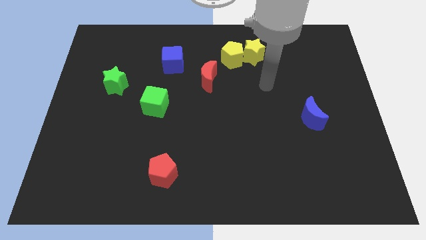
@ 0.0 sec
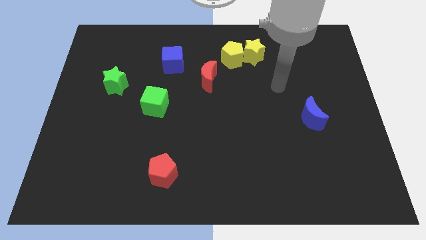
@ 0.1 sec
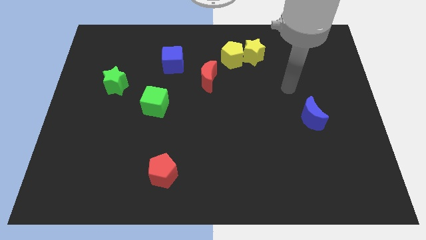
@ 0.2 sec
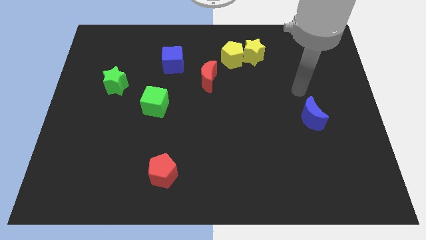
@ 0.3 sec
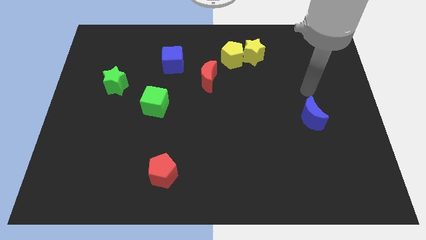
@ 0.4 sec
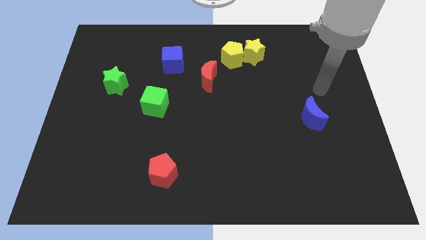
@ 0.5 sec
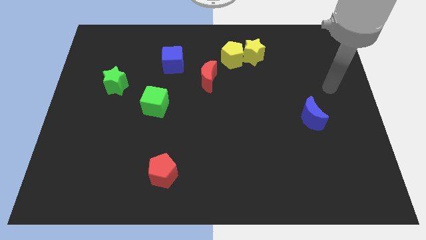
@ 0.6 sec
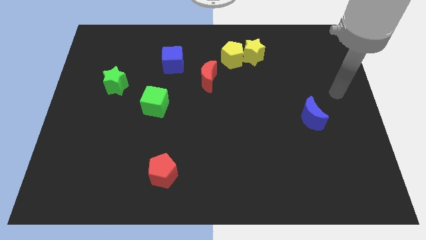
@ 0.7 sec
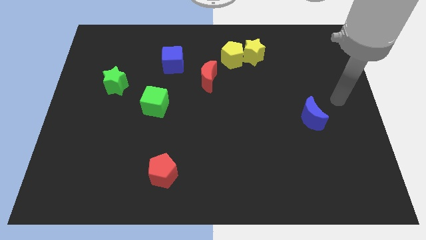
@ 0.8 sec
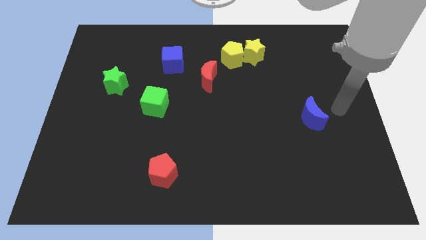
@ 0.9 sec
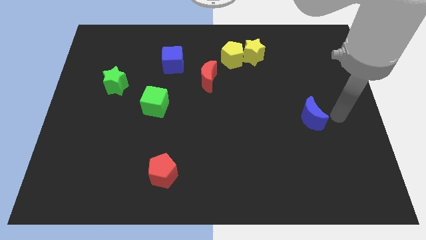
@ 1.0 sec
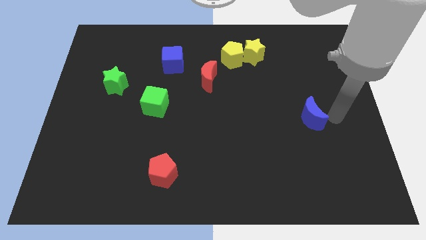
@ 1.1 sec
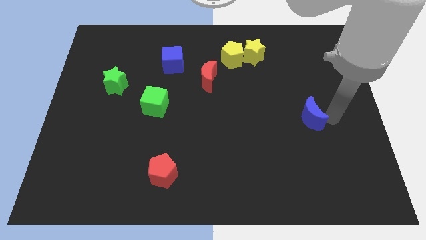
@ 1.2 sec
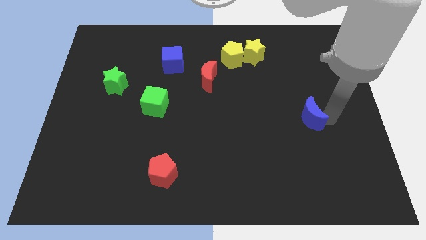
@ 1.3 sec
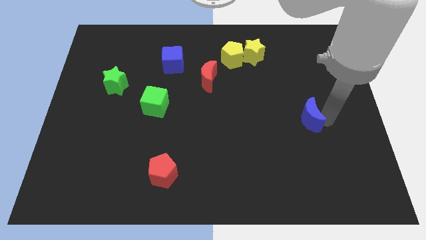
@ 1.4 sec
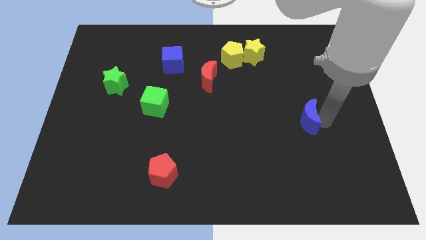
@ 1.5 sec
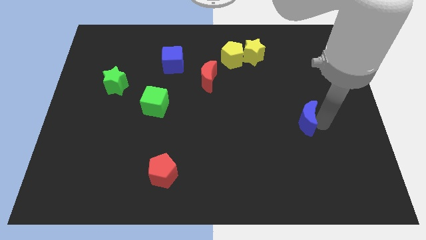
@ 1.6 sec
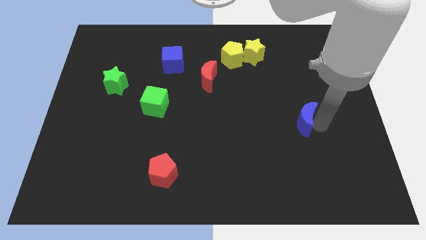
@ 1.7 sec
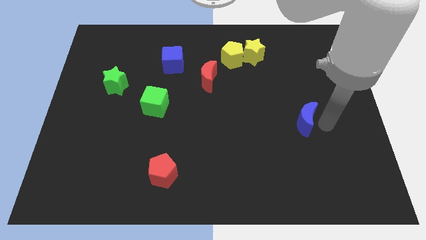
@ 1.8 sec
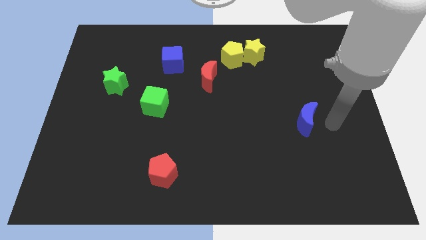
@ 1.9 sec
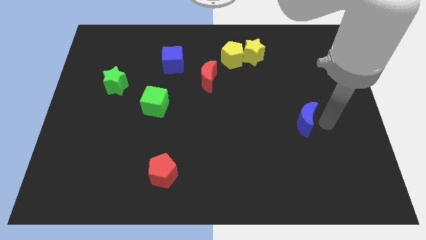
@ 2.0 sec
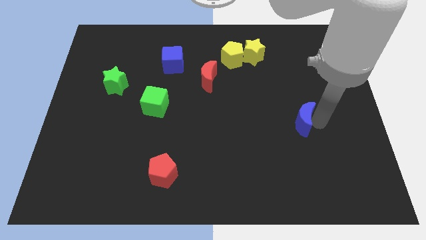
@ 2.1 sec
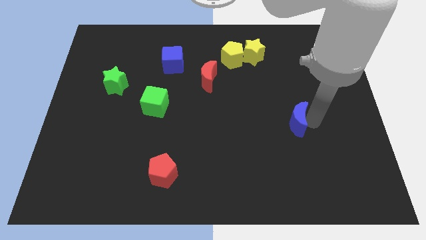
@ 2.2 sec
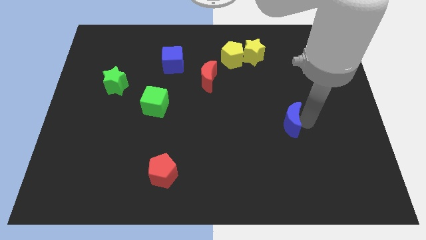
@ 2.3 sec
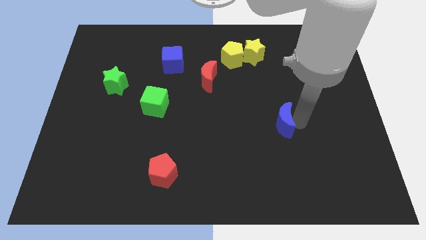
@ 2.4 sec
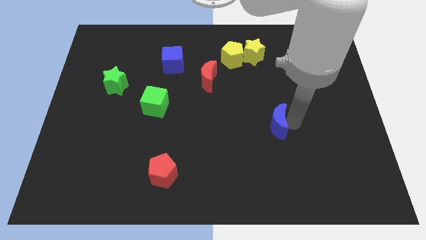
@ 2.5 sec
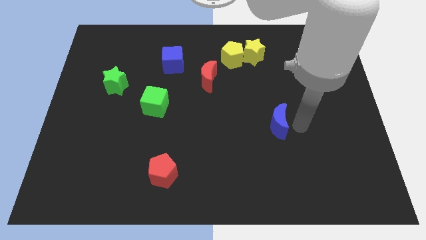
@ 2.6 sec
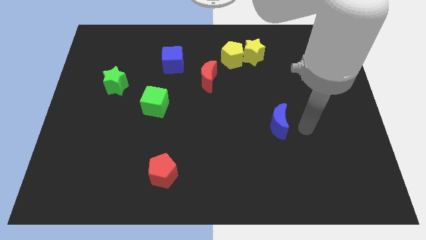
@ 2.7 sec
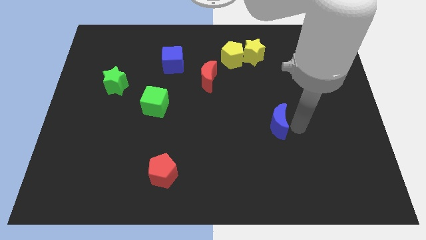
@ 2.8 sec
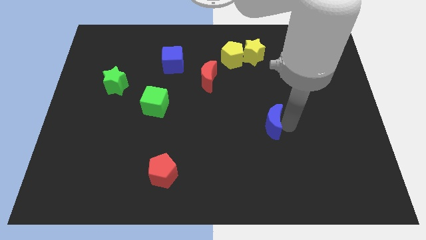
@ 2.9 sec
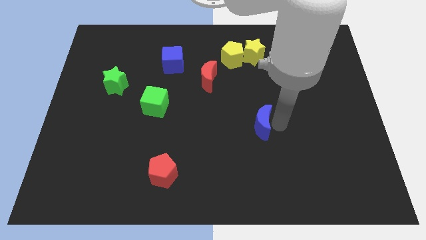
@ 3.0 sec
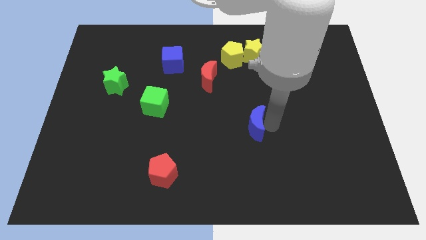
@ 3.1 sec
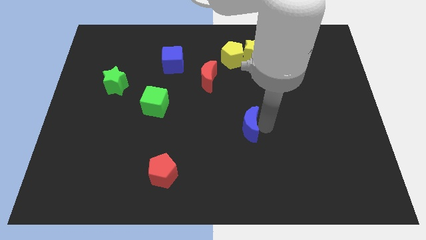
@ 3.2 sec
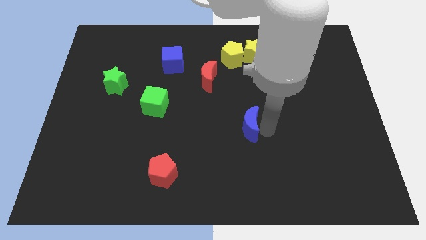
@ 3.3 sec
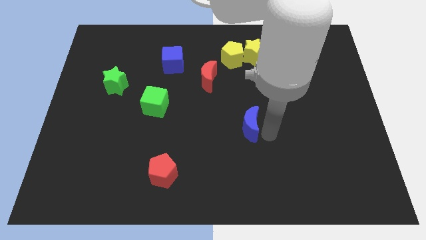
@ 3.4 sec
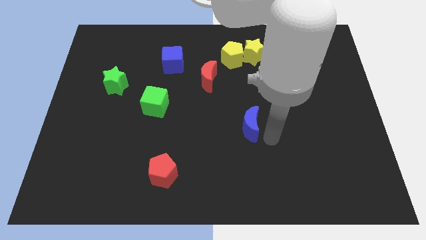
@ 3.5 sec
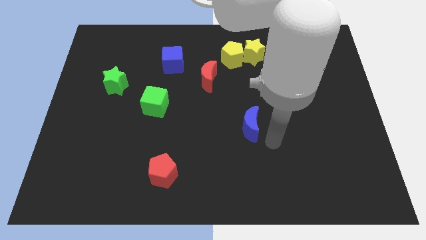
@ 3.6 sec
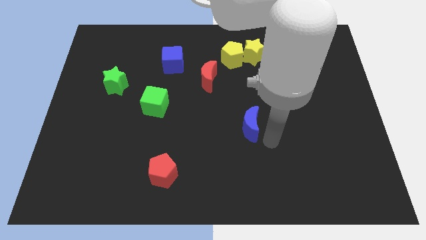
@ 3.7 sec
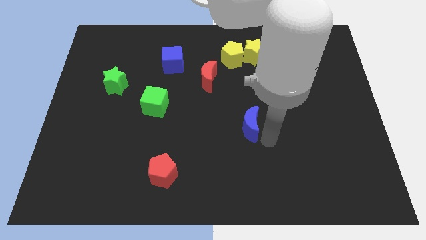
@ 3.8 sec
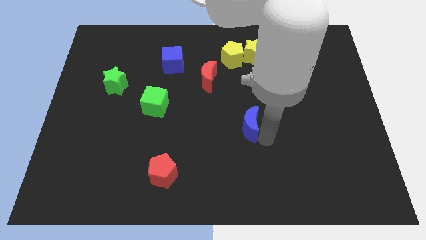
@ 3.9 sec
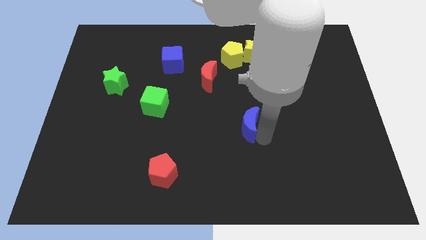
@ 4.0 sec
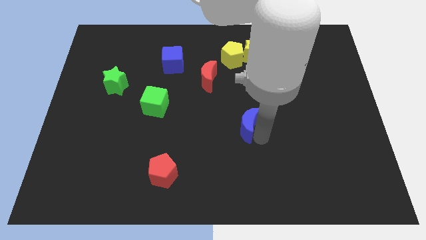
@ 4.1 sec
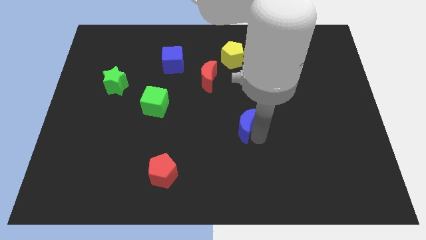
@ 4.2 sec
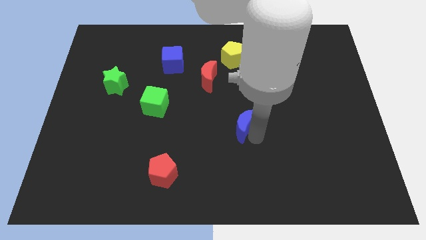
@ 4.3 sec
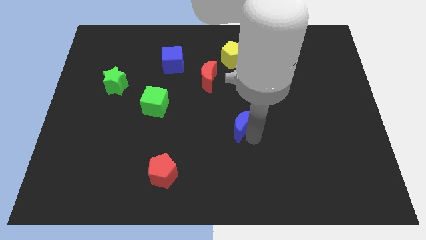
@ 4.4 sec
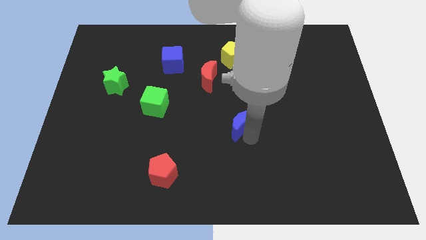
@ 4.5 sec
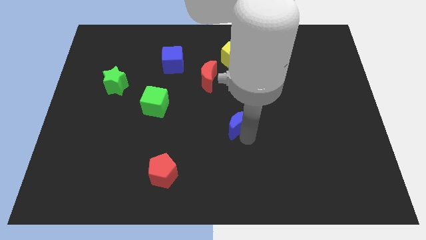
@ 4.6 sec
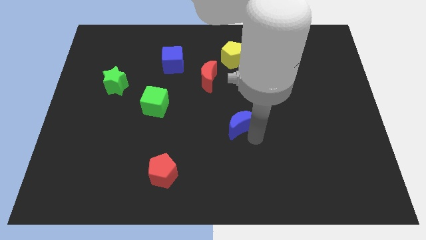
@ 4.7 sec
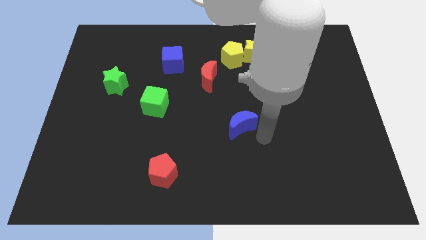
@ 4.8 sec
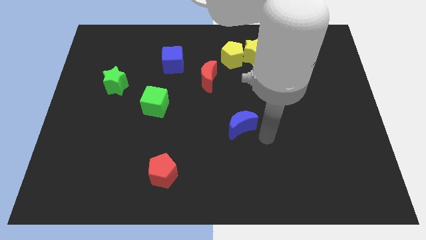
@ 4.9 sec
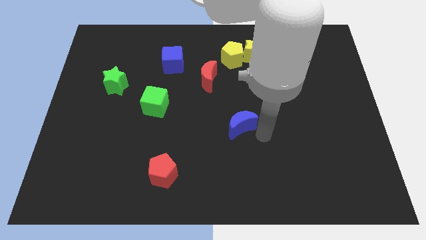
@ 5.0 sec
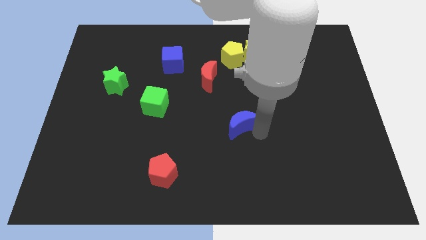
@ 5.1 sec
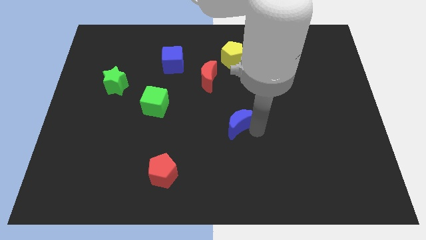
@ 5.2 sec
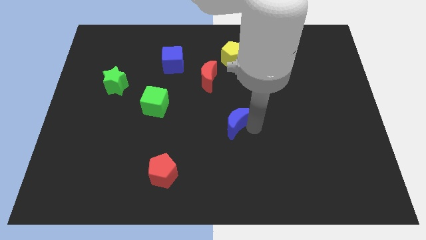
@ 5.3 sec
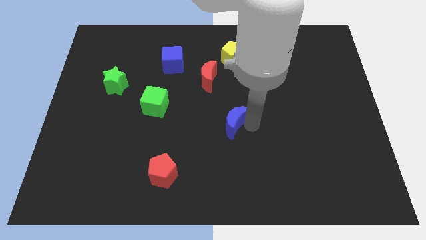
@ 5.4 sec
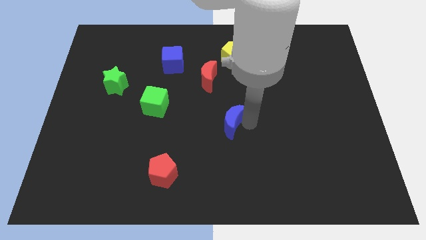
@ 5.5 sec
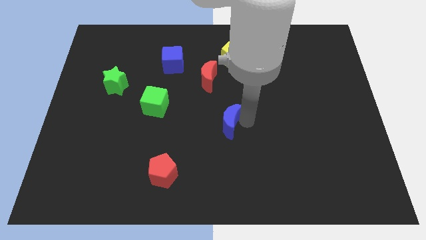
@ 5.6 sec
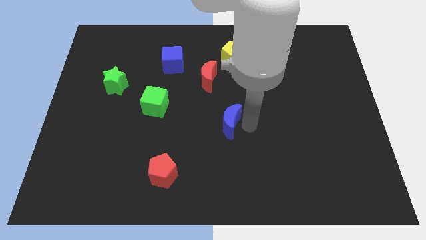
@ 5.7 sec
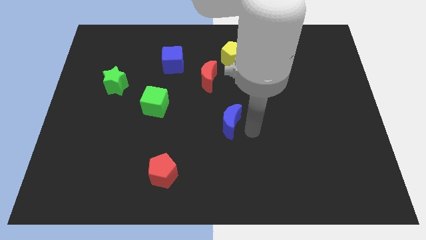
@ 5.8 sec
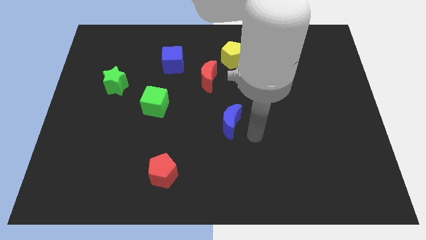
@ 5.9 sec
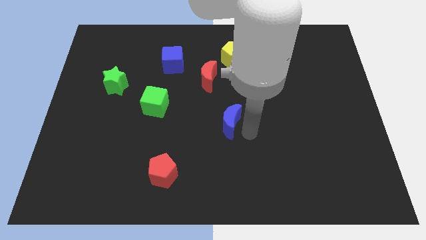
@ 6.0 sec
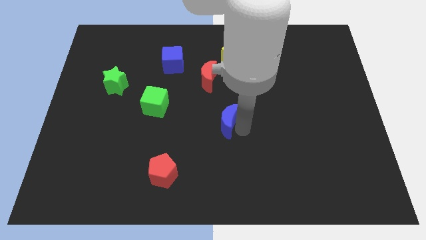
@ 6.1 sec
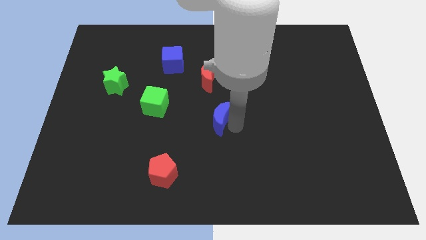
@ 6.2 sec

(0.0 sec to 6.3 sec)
slide the blue moon below the red moon

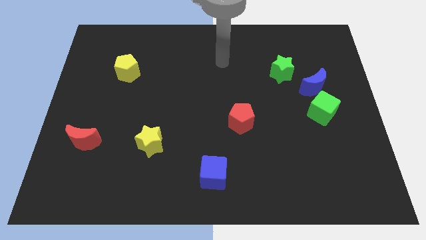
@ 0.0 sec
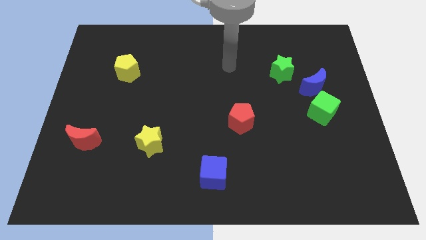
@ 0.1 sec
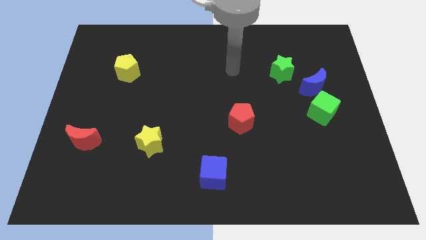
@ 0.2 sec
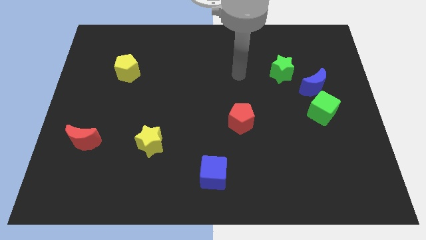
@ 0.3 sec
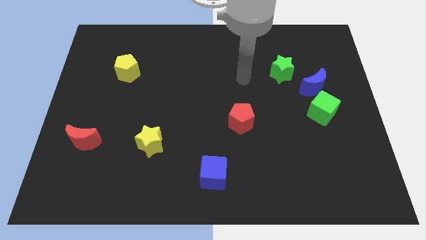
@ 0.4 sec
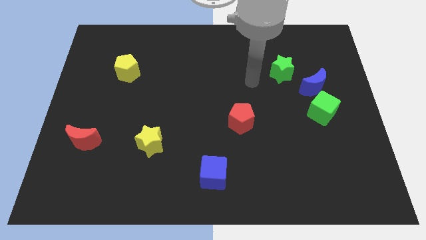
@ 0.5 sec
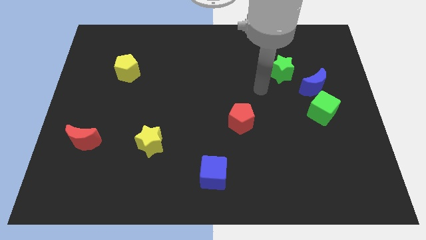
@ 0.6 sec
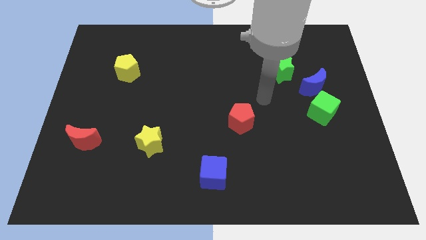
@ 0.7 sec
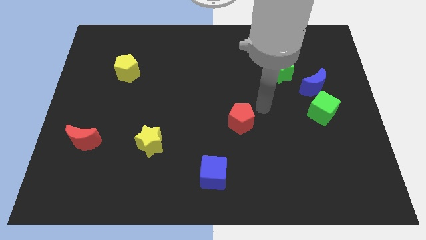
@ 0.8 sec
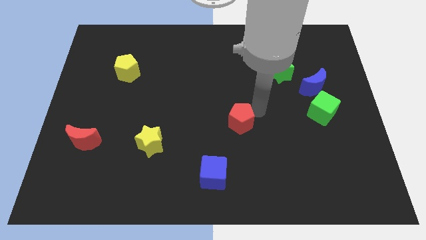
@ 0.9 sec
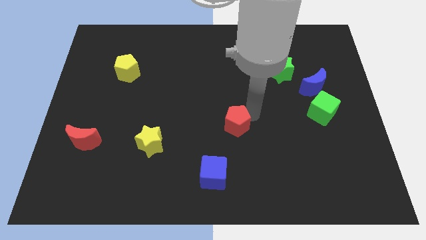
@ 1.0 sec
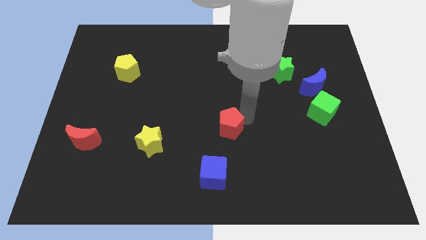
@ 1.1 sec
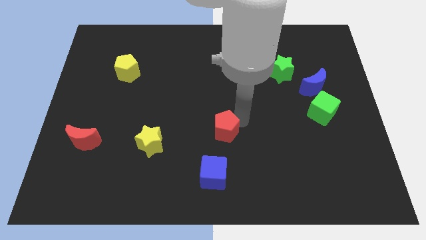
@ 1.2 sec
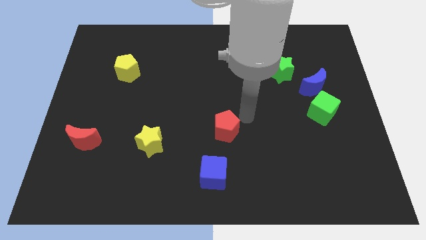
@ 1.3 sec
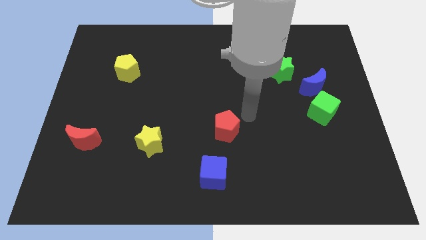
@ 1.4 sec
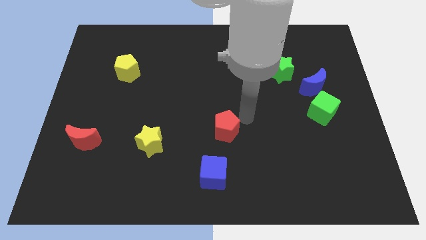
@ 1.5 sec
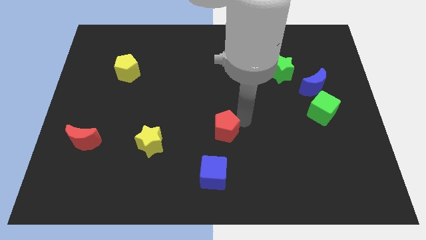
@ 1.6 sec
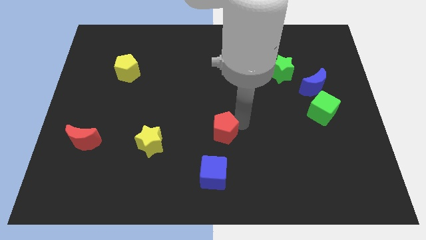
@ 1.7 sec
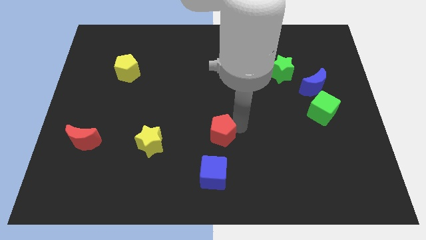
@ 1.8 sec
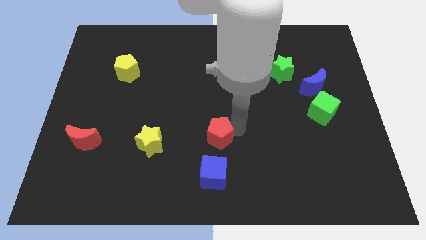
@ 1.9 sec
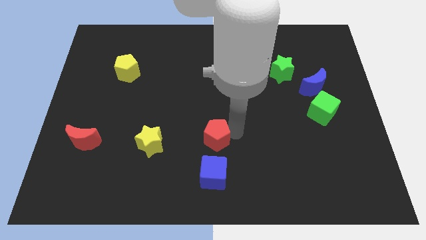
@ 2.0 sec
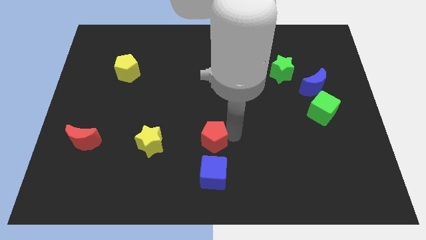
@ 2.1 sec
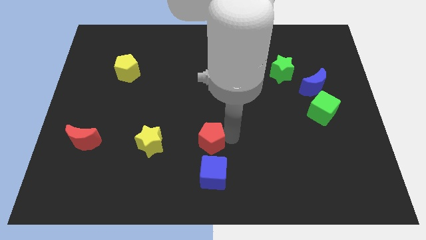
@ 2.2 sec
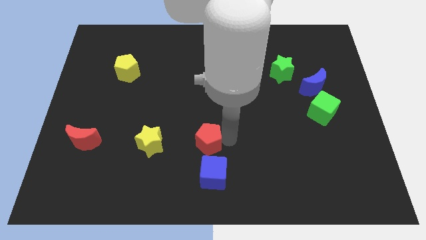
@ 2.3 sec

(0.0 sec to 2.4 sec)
push the red pentagon to the top left side of the blue cube
